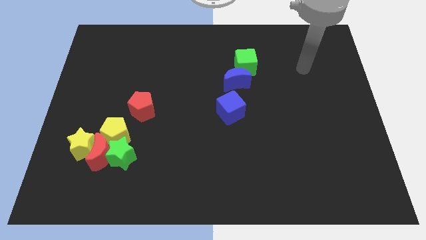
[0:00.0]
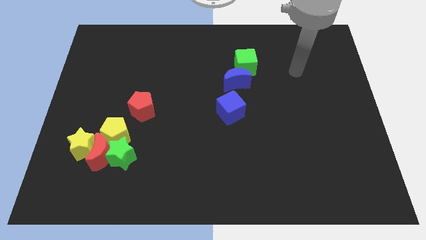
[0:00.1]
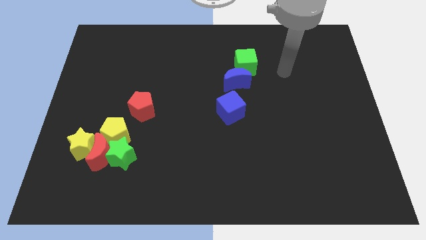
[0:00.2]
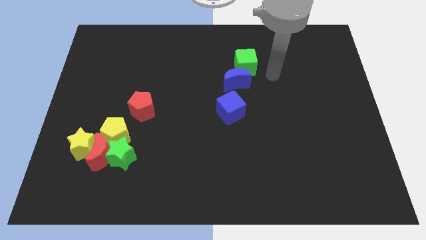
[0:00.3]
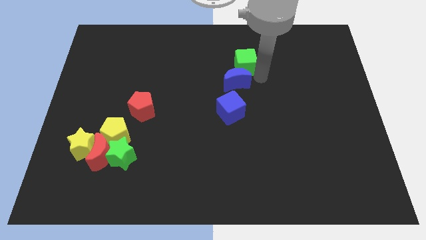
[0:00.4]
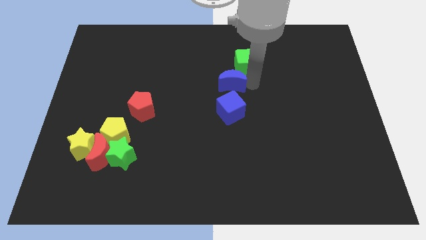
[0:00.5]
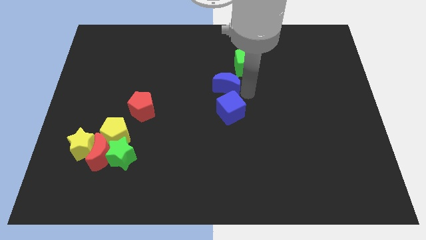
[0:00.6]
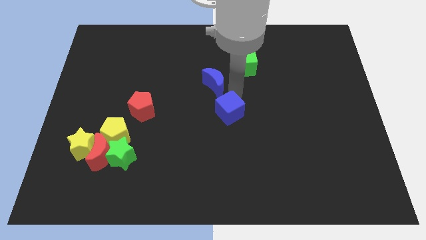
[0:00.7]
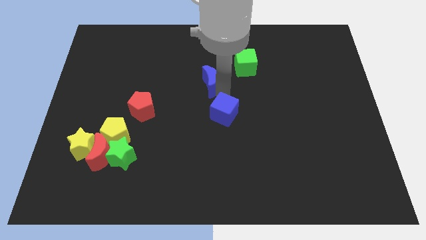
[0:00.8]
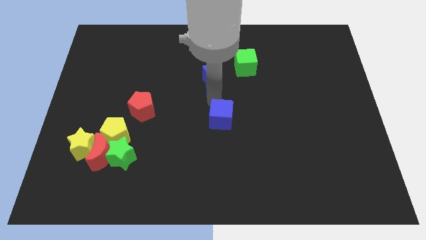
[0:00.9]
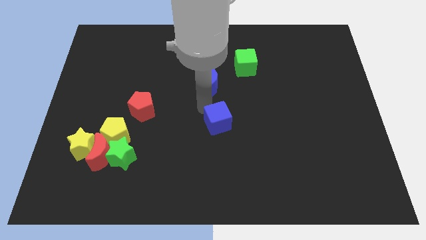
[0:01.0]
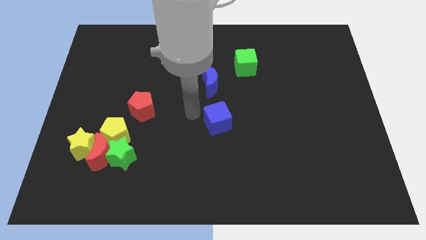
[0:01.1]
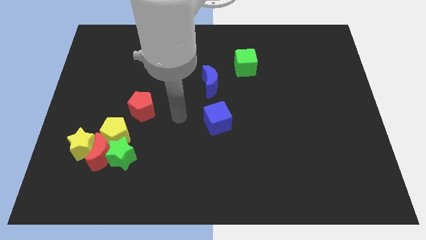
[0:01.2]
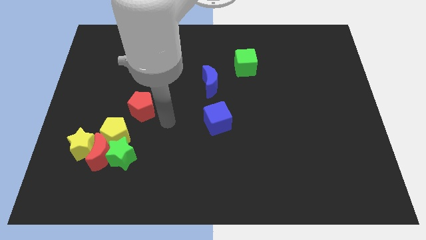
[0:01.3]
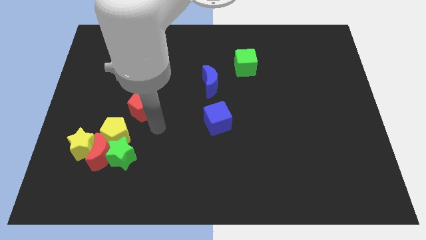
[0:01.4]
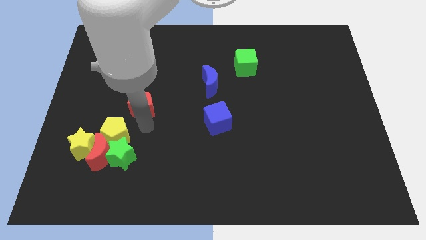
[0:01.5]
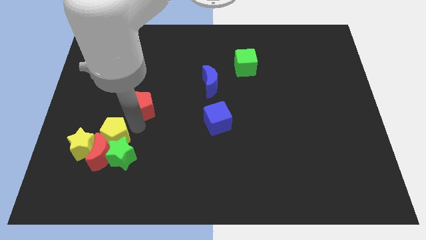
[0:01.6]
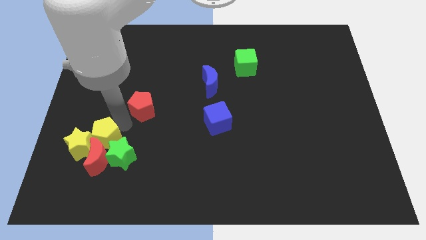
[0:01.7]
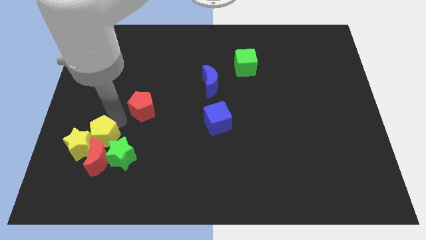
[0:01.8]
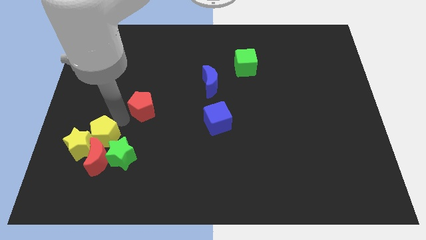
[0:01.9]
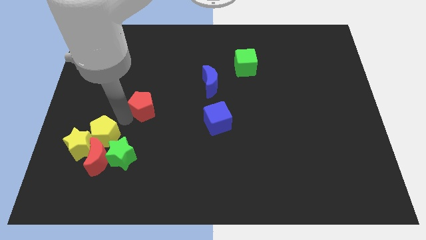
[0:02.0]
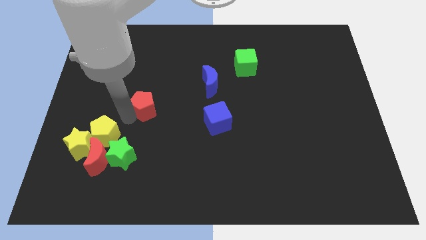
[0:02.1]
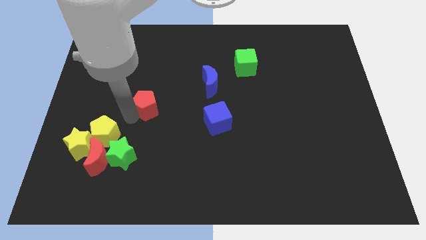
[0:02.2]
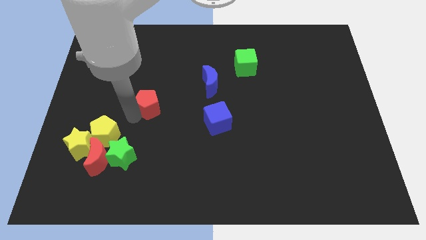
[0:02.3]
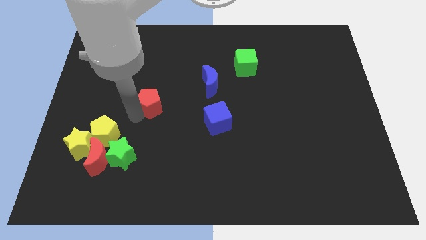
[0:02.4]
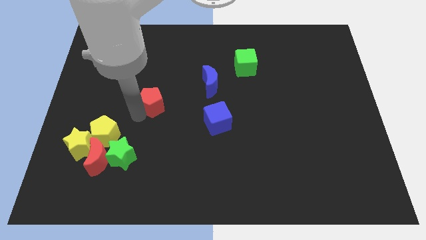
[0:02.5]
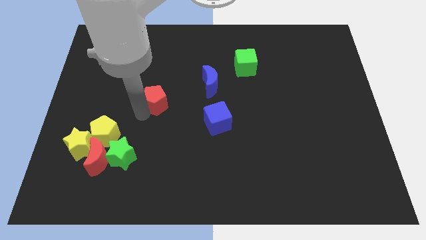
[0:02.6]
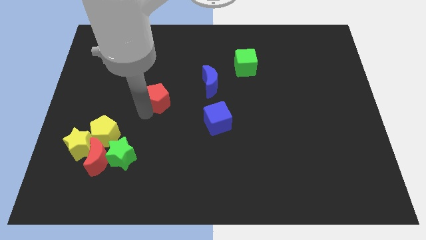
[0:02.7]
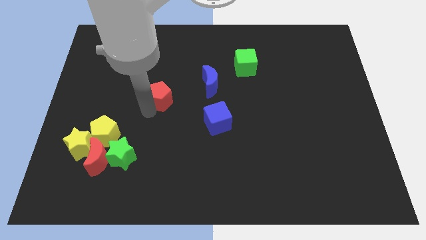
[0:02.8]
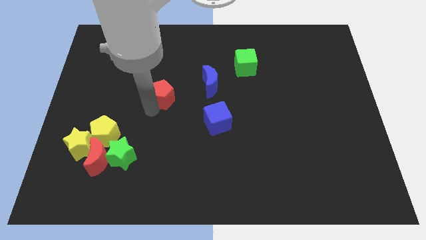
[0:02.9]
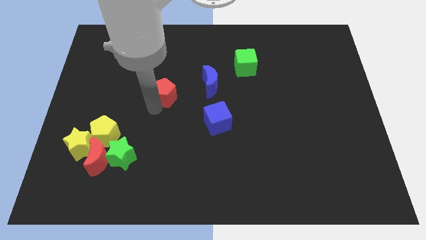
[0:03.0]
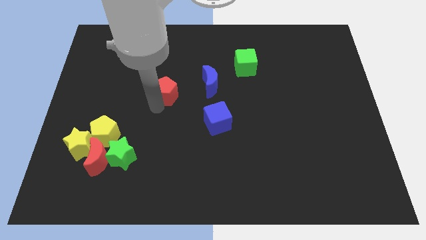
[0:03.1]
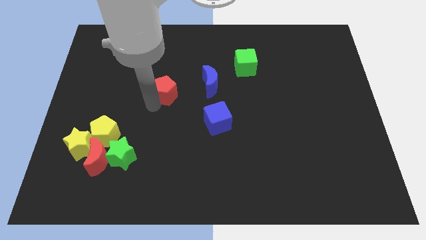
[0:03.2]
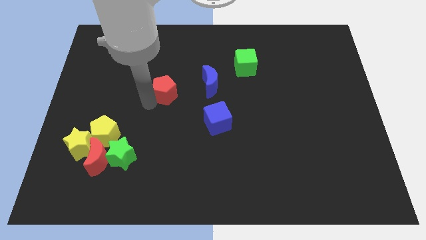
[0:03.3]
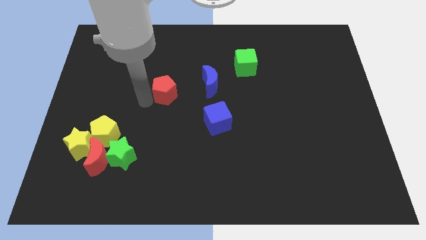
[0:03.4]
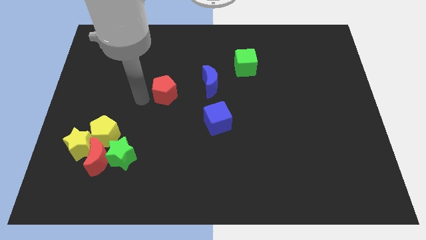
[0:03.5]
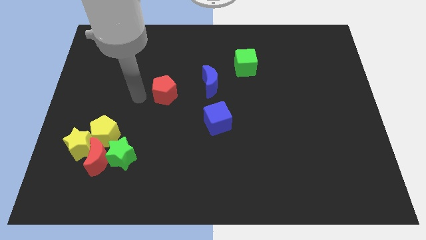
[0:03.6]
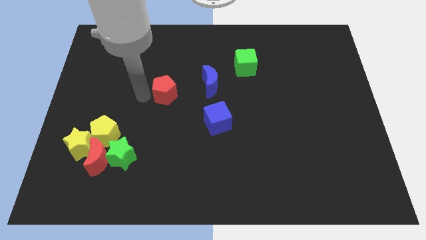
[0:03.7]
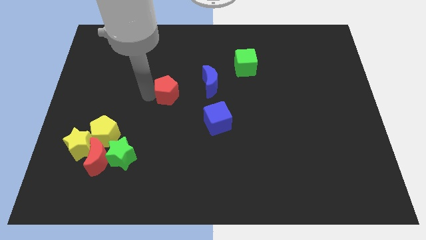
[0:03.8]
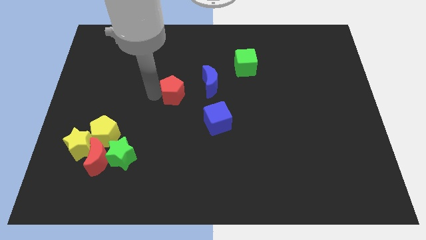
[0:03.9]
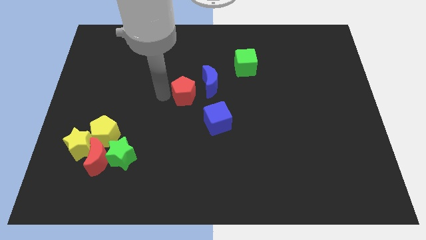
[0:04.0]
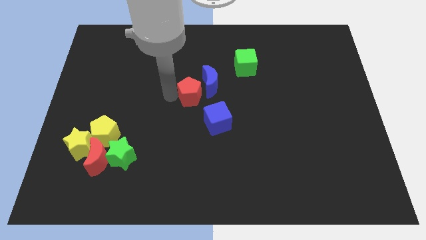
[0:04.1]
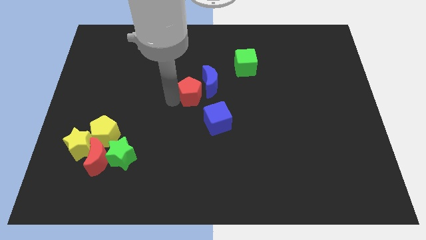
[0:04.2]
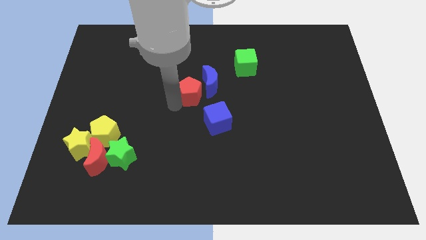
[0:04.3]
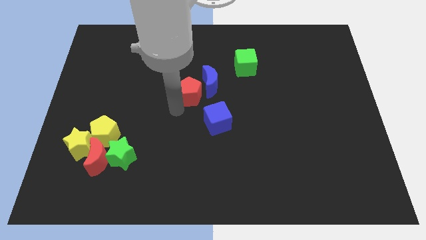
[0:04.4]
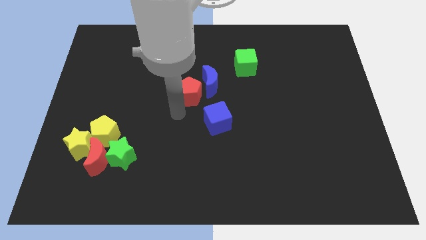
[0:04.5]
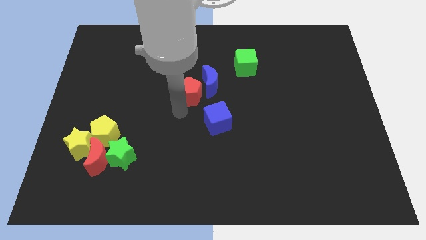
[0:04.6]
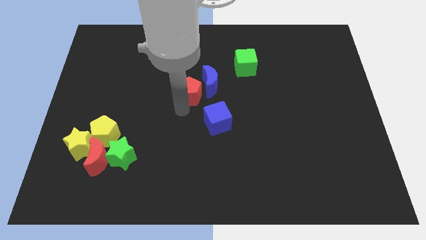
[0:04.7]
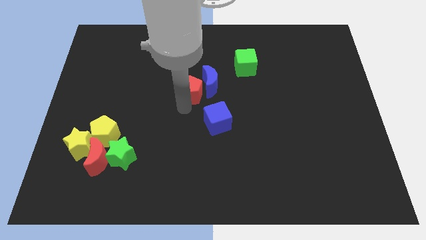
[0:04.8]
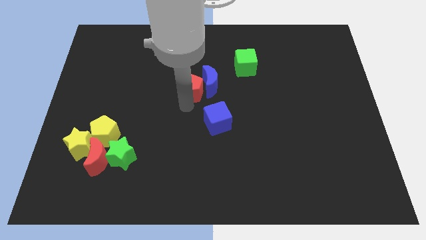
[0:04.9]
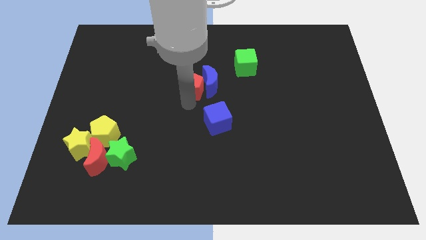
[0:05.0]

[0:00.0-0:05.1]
push the red pentagon to the top left side of the blue moon

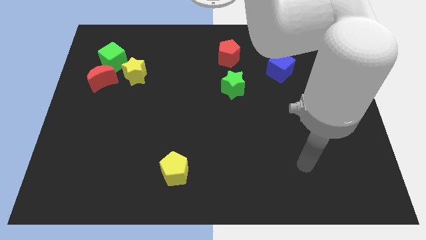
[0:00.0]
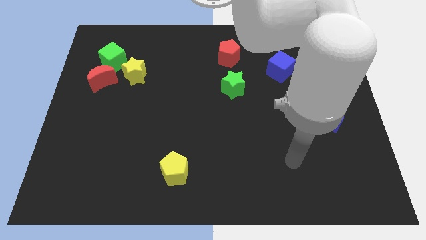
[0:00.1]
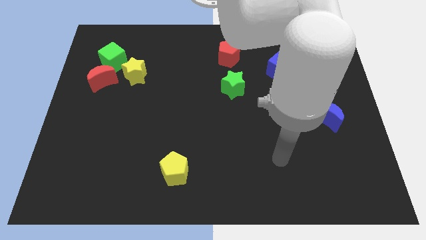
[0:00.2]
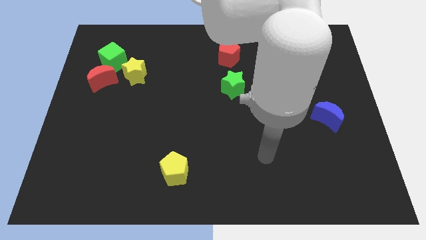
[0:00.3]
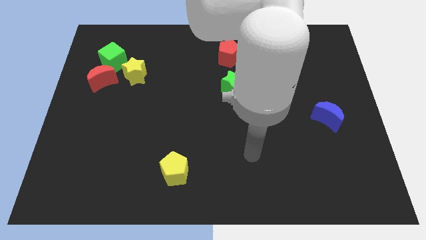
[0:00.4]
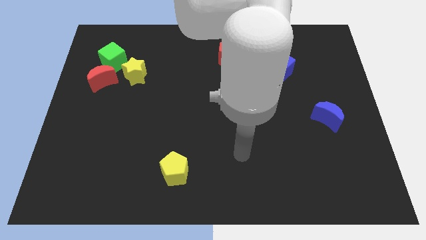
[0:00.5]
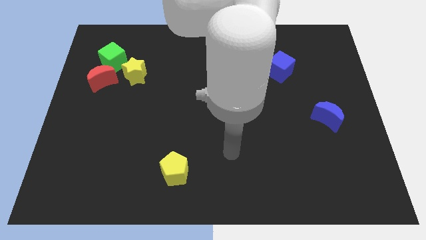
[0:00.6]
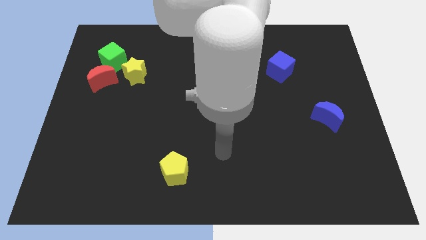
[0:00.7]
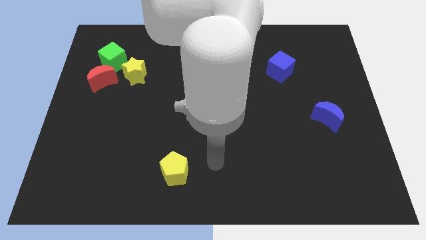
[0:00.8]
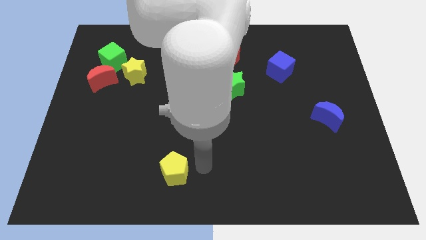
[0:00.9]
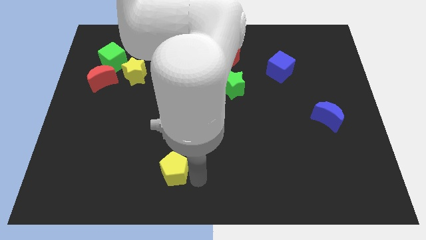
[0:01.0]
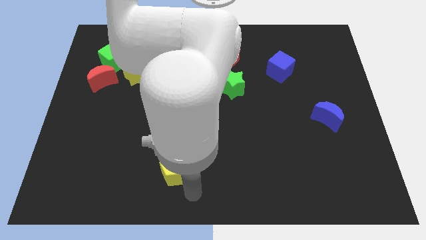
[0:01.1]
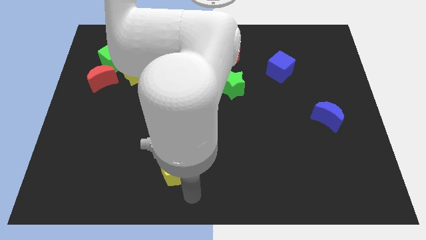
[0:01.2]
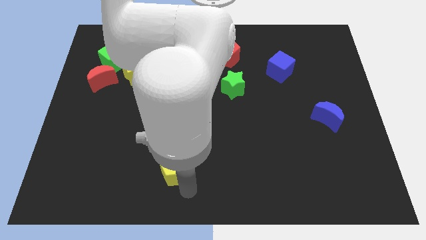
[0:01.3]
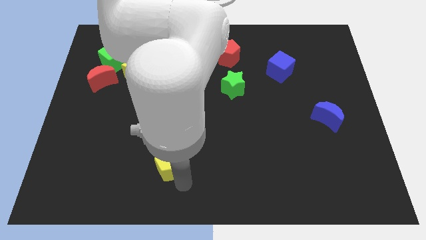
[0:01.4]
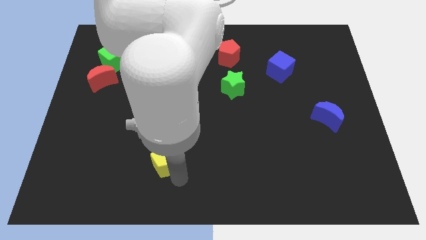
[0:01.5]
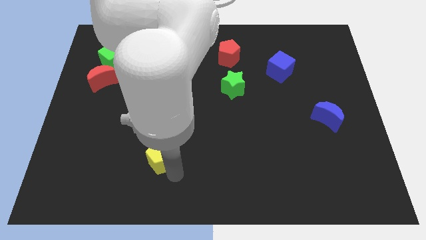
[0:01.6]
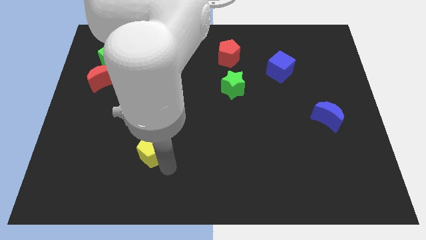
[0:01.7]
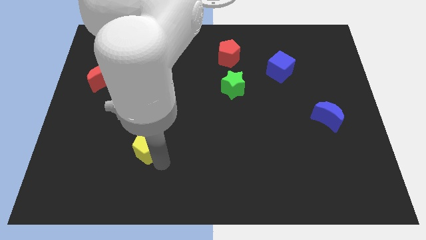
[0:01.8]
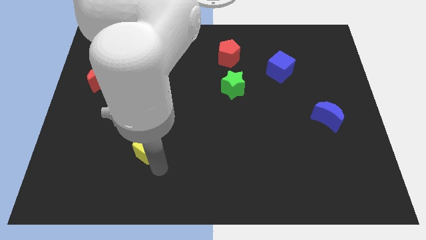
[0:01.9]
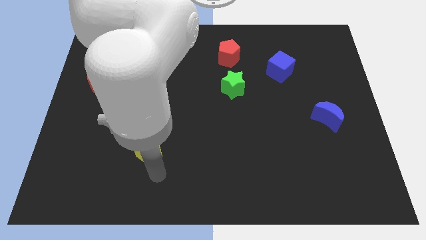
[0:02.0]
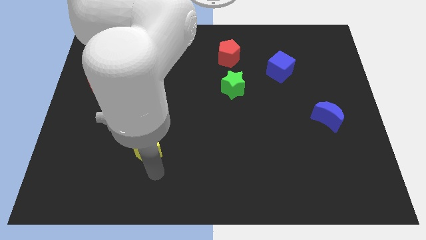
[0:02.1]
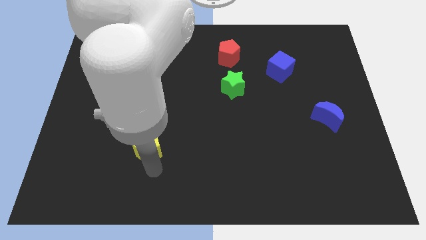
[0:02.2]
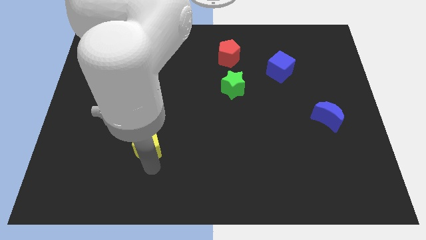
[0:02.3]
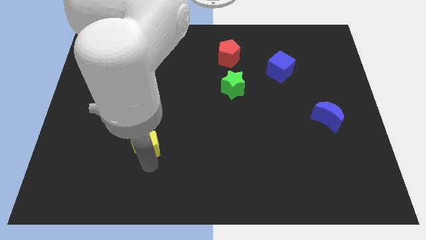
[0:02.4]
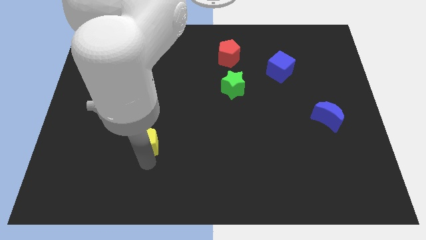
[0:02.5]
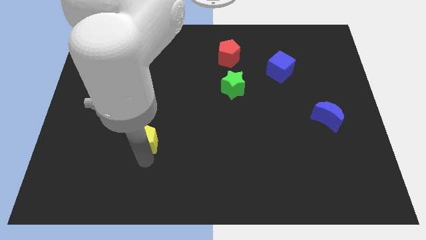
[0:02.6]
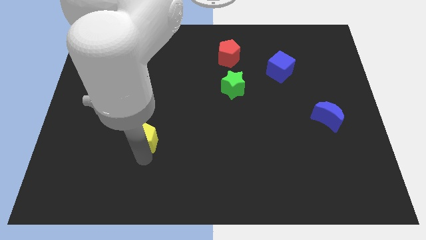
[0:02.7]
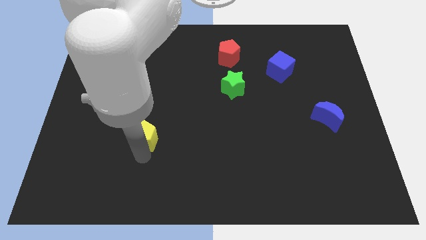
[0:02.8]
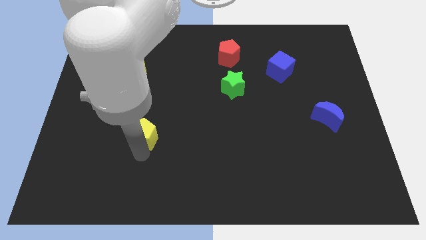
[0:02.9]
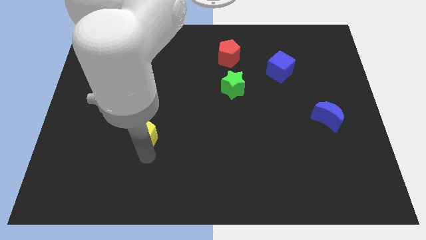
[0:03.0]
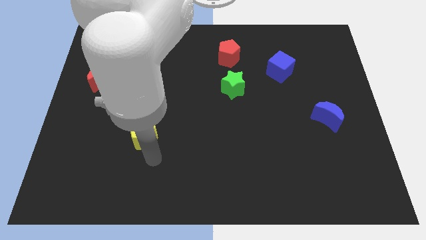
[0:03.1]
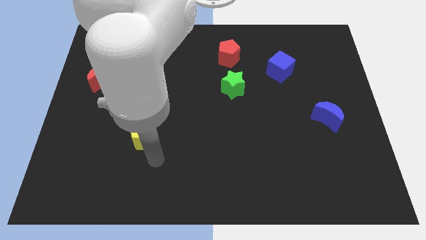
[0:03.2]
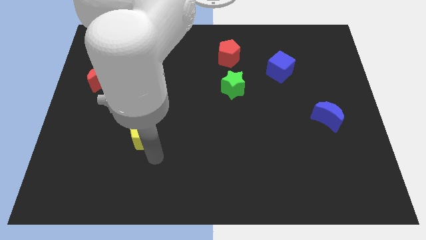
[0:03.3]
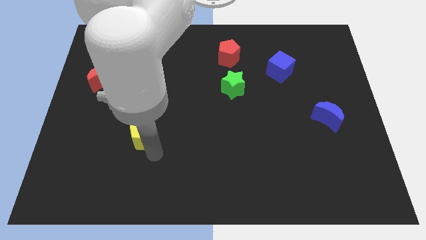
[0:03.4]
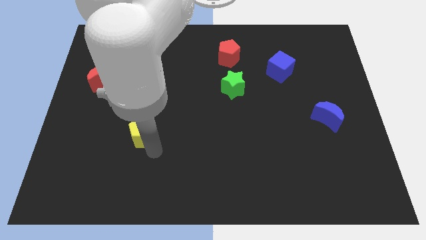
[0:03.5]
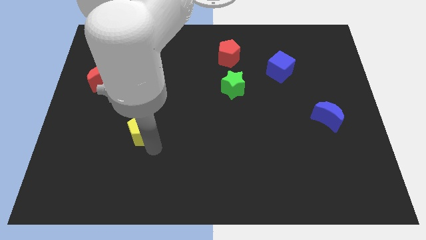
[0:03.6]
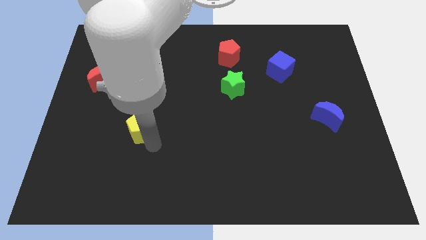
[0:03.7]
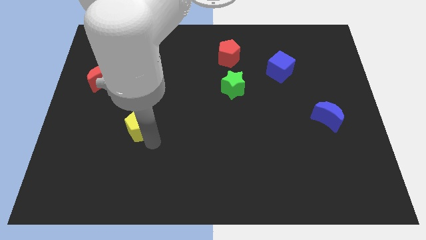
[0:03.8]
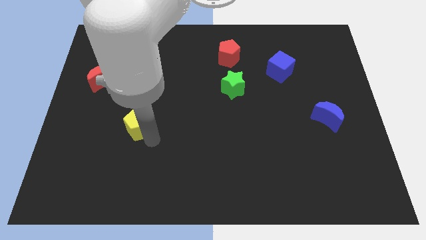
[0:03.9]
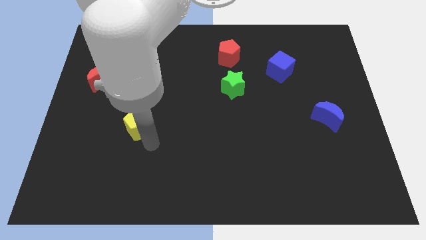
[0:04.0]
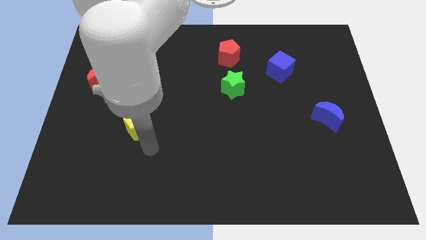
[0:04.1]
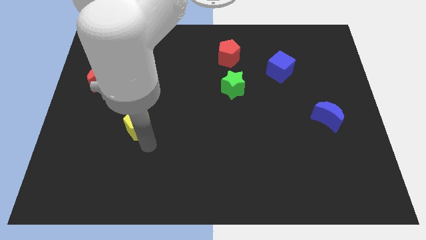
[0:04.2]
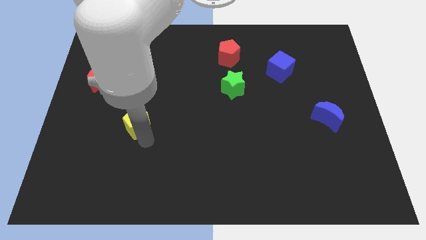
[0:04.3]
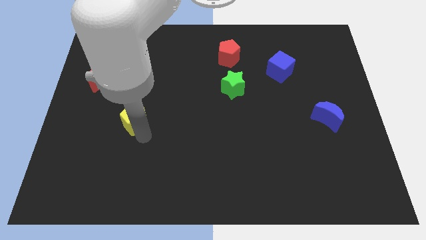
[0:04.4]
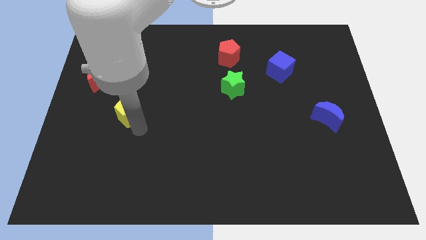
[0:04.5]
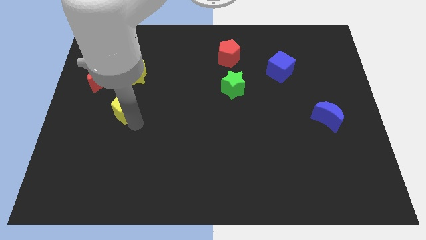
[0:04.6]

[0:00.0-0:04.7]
slide the yellow pentagon to the bottom right side of the red moon
